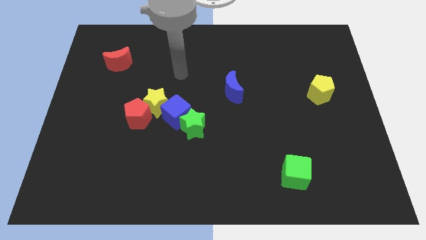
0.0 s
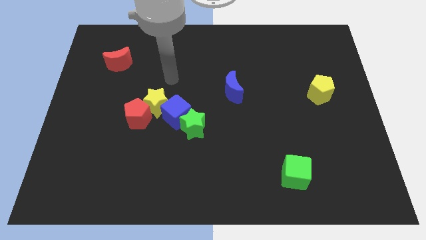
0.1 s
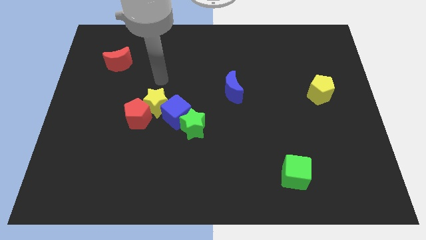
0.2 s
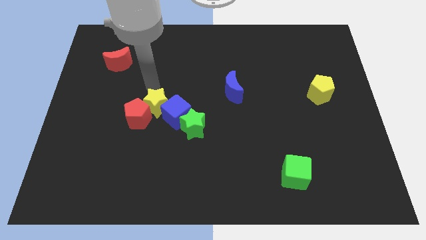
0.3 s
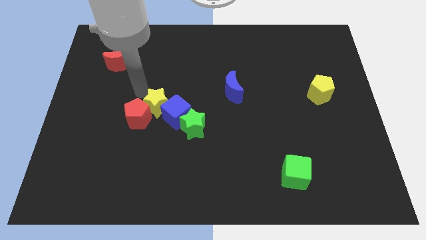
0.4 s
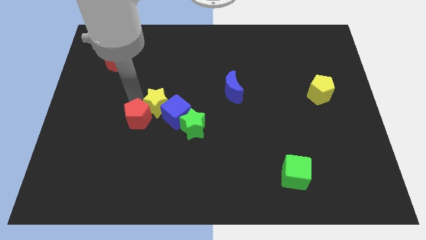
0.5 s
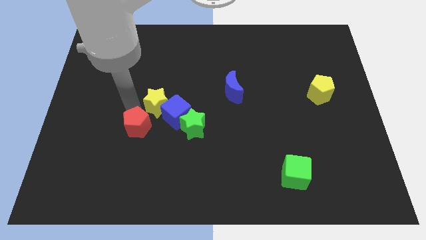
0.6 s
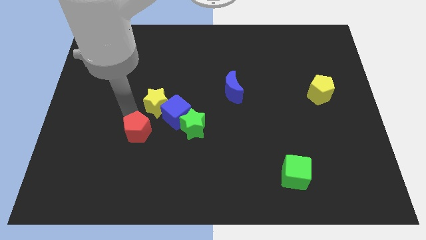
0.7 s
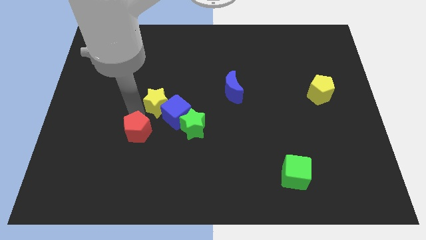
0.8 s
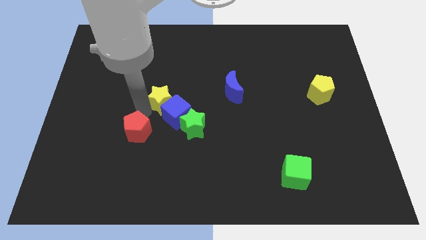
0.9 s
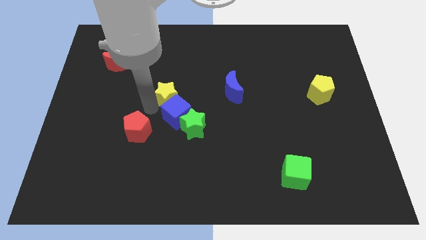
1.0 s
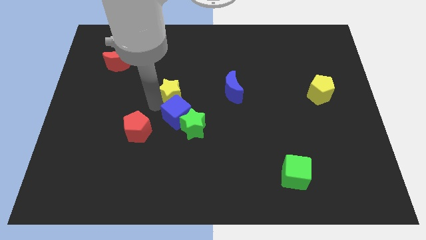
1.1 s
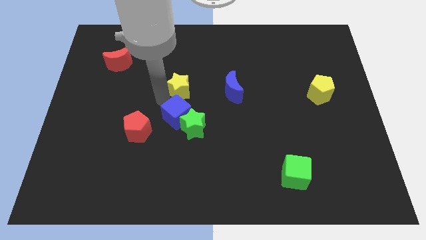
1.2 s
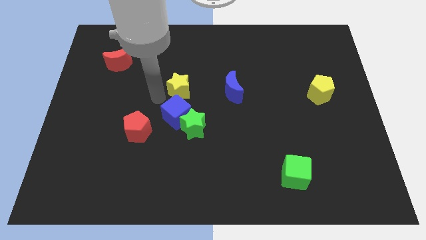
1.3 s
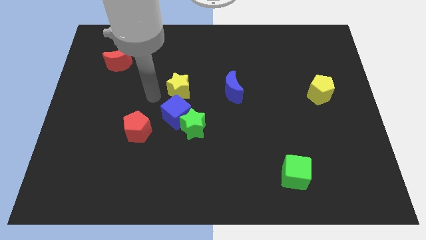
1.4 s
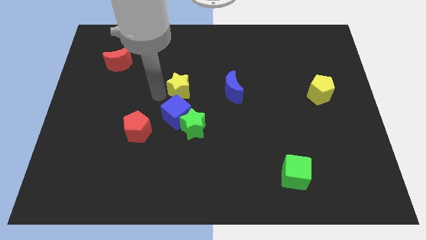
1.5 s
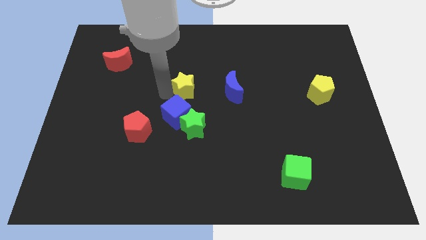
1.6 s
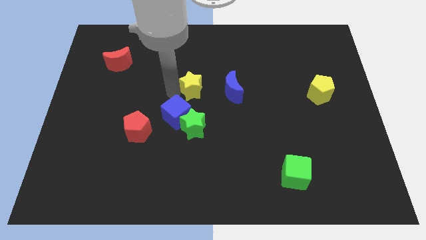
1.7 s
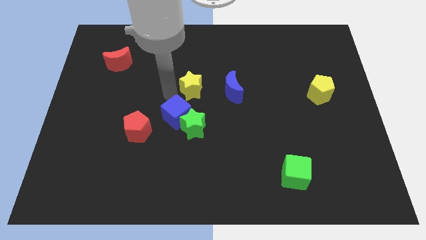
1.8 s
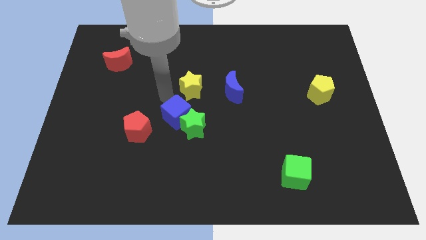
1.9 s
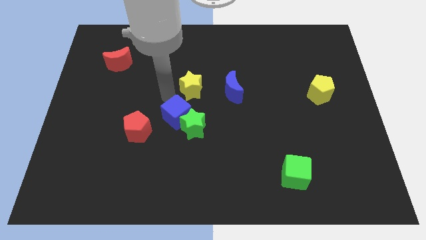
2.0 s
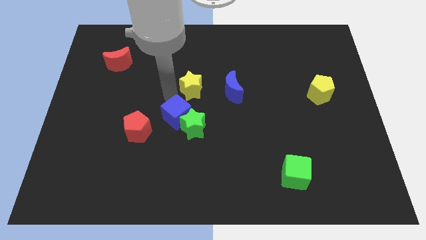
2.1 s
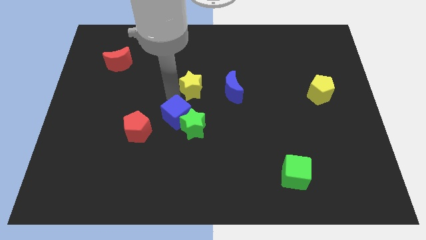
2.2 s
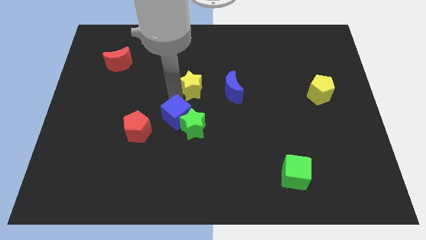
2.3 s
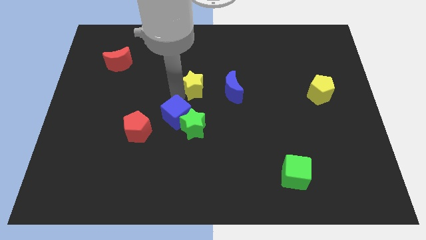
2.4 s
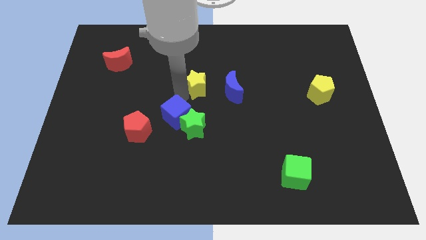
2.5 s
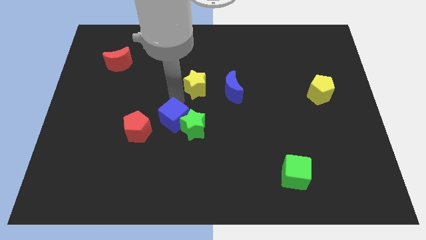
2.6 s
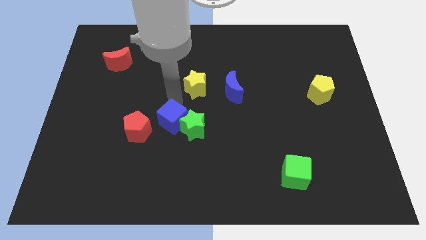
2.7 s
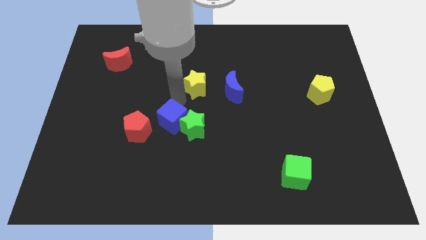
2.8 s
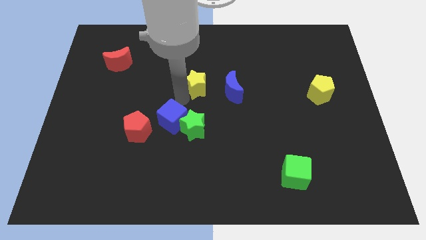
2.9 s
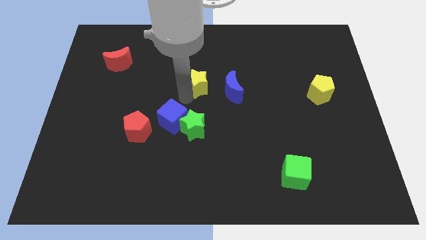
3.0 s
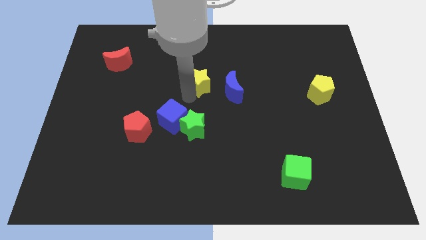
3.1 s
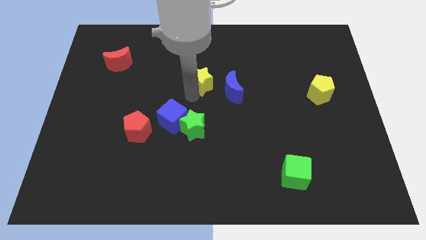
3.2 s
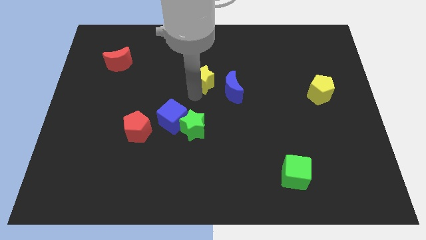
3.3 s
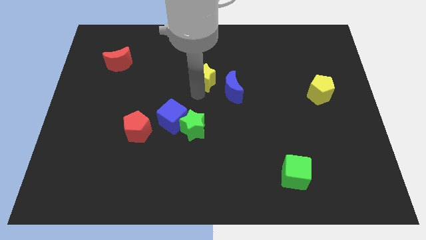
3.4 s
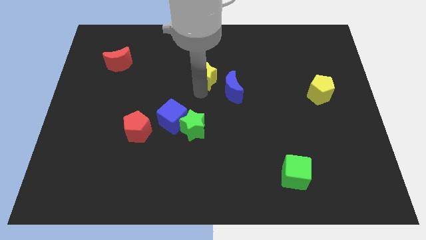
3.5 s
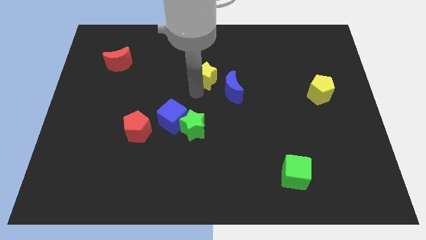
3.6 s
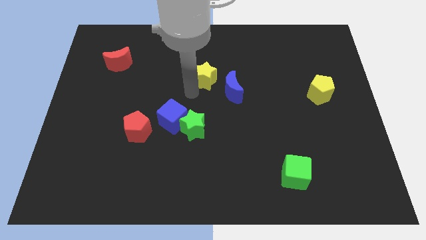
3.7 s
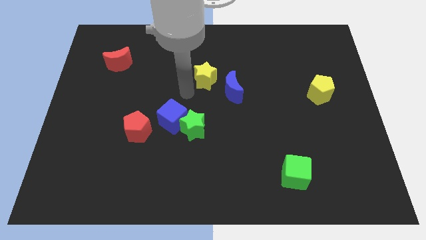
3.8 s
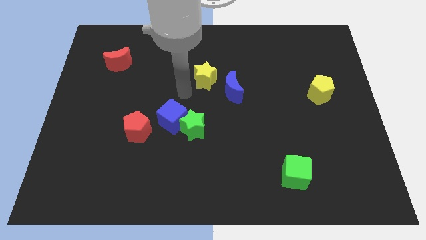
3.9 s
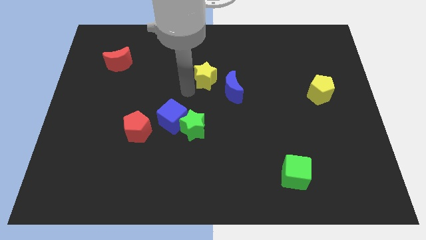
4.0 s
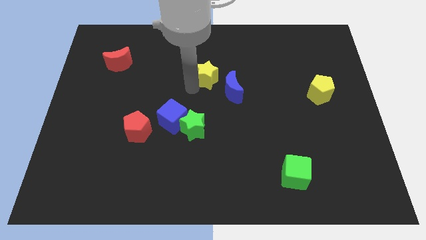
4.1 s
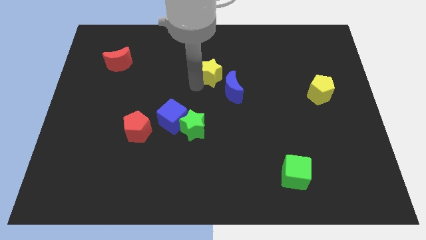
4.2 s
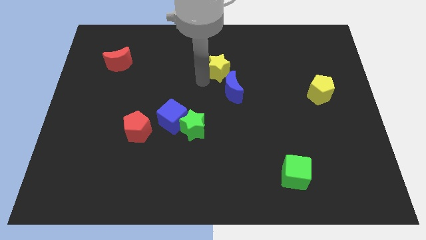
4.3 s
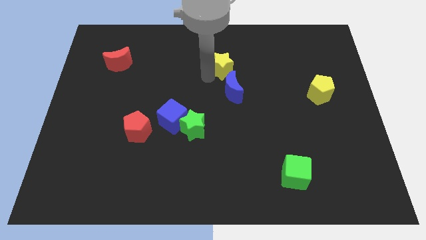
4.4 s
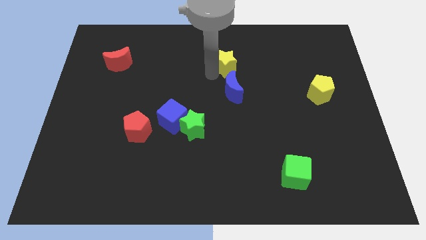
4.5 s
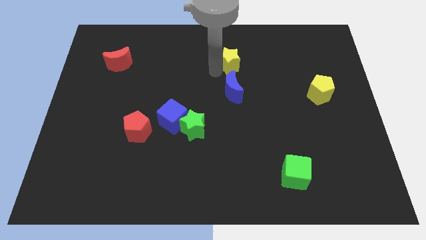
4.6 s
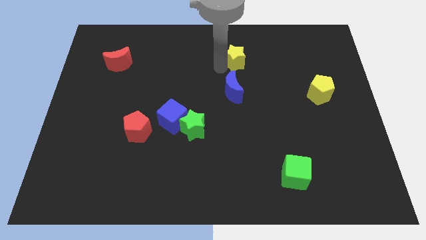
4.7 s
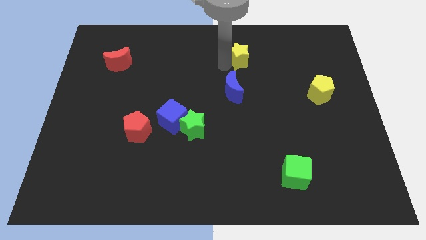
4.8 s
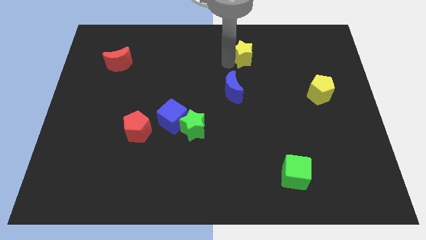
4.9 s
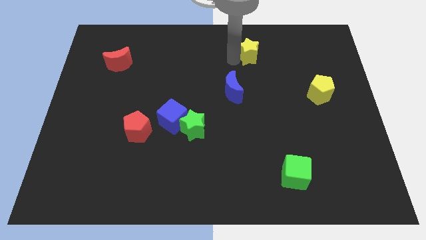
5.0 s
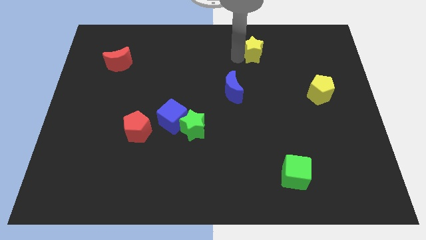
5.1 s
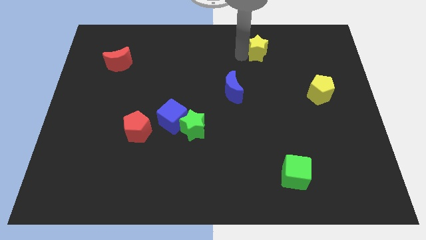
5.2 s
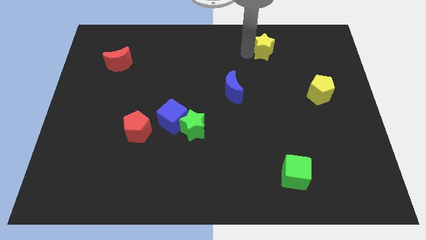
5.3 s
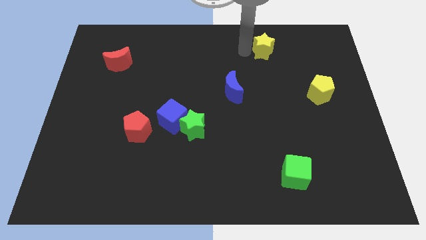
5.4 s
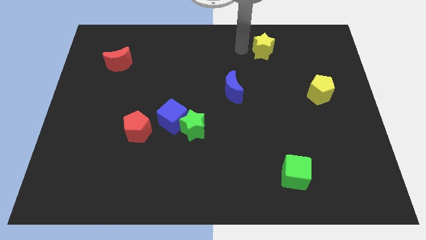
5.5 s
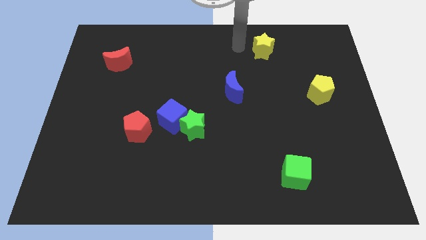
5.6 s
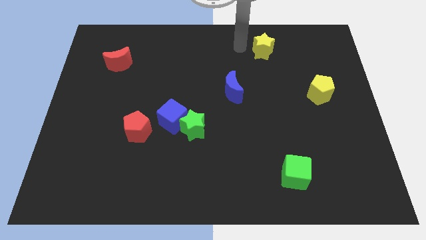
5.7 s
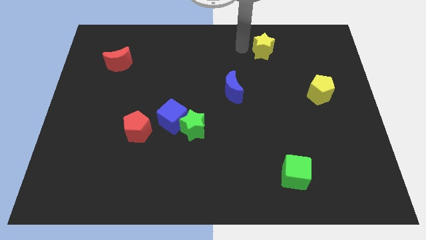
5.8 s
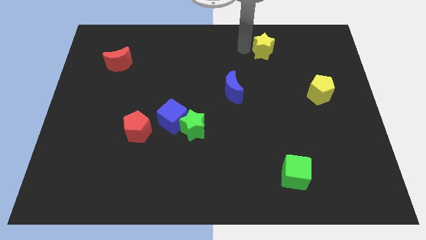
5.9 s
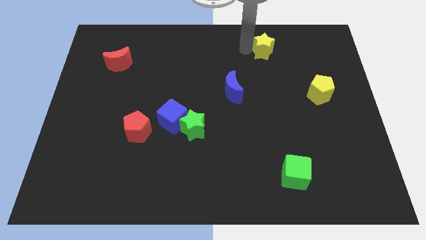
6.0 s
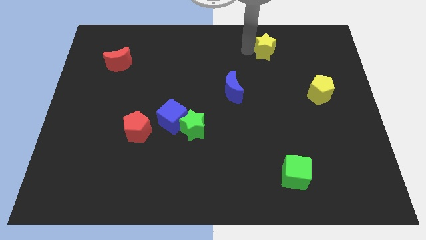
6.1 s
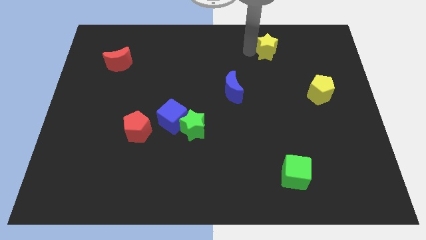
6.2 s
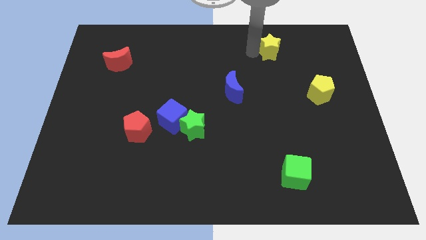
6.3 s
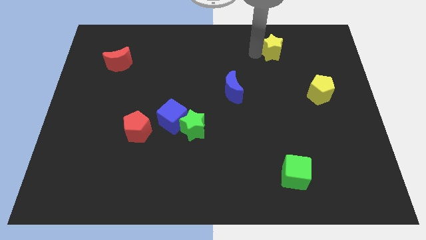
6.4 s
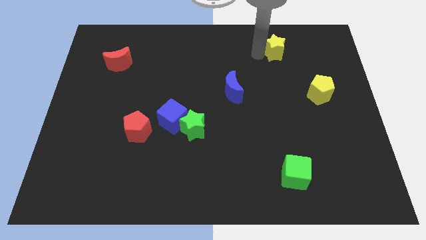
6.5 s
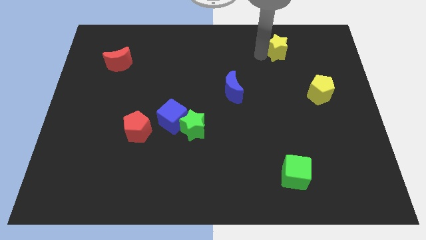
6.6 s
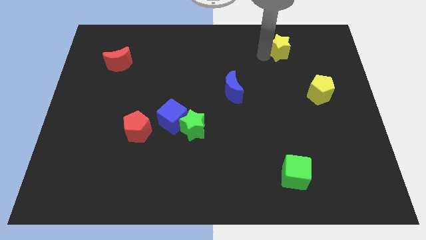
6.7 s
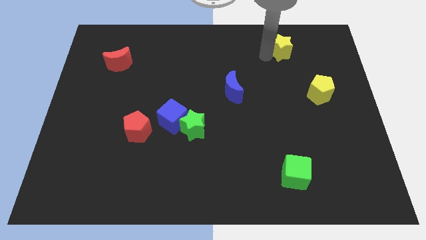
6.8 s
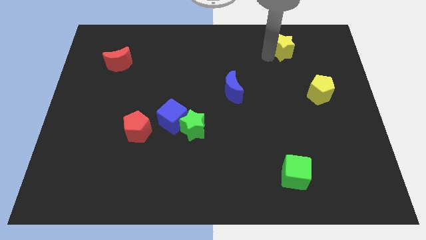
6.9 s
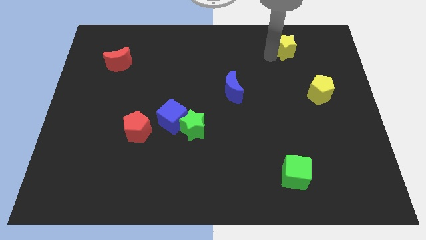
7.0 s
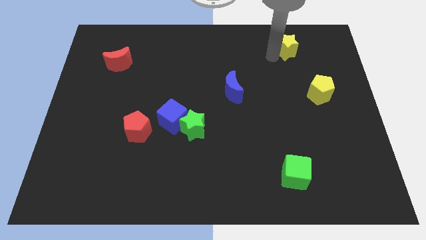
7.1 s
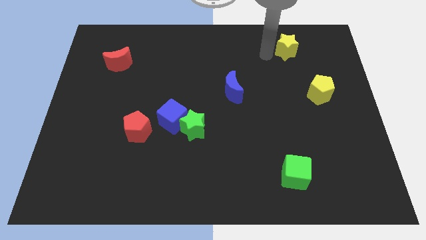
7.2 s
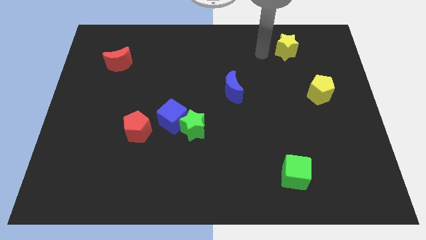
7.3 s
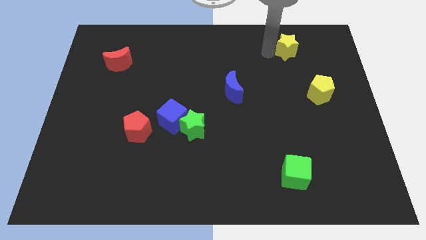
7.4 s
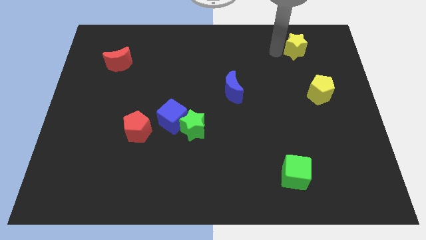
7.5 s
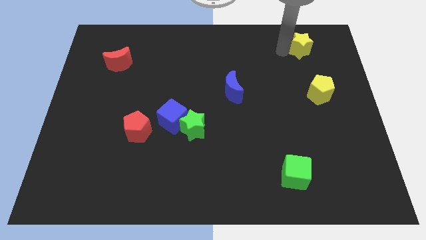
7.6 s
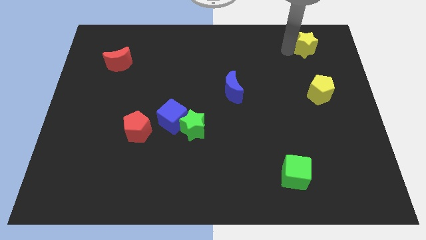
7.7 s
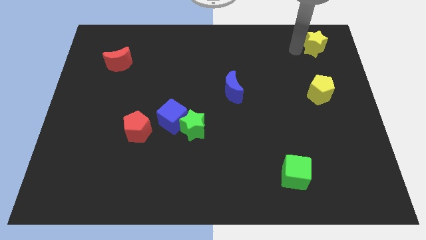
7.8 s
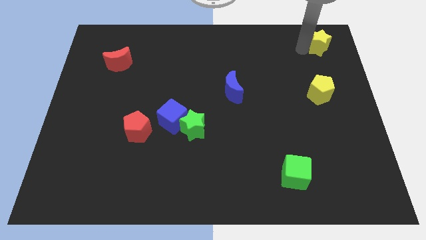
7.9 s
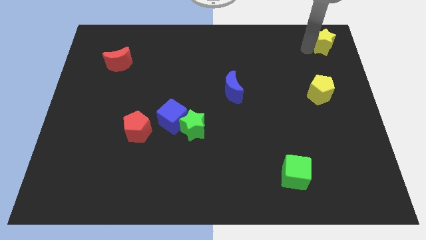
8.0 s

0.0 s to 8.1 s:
put the yellow star to the top right
